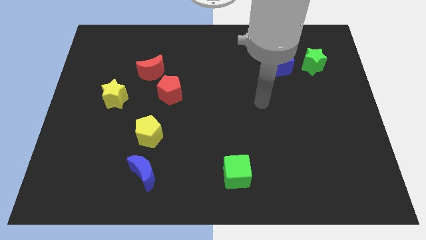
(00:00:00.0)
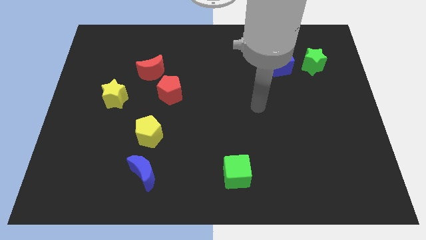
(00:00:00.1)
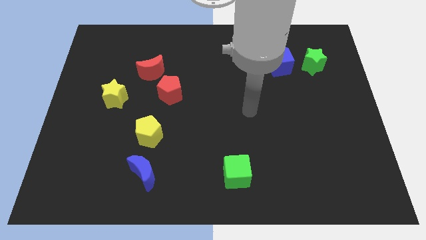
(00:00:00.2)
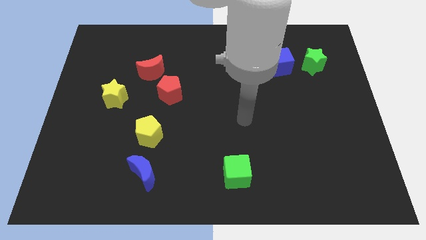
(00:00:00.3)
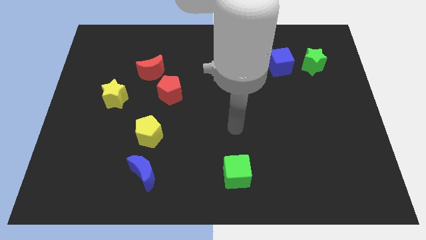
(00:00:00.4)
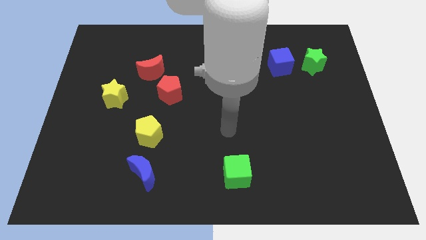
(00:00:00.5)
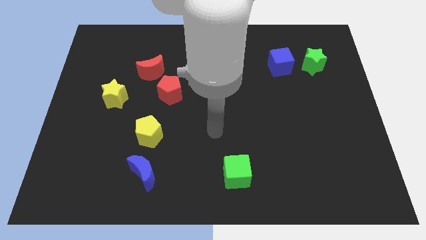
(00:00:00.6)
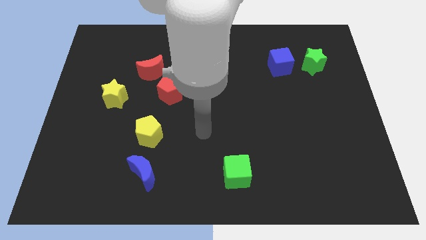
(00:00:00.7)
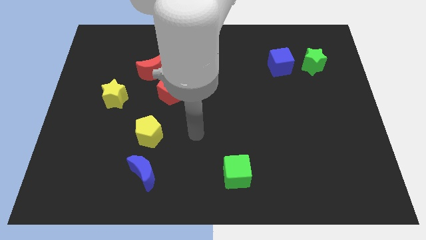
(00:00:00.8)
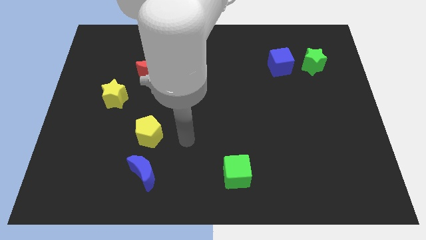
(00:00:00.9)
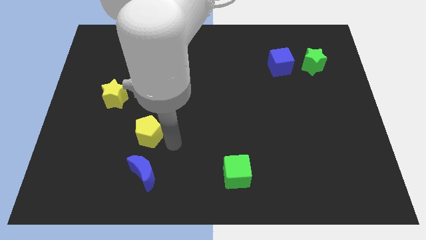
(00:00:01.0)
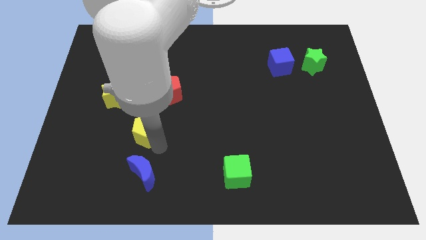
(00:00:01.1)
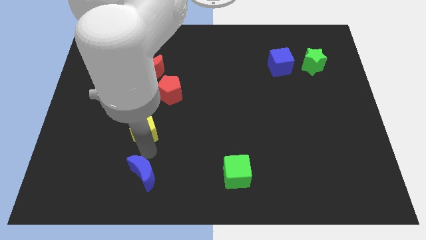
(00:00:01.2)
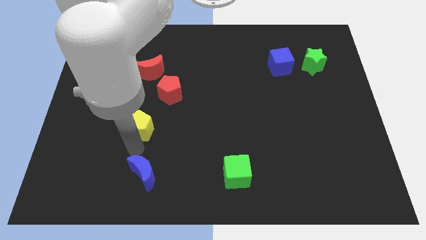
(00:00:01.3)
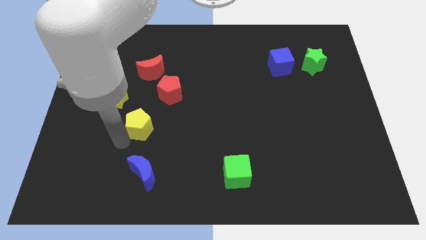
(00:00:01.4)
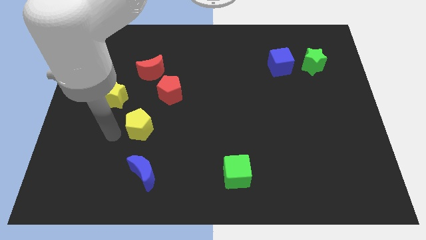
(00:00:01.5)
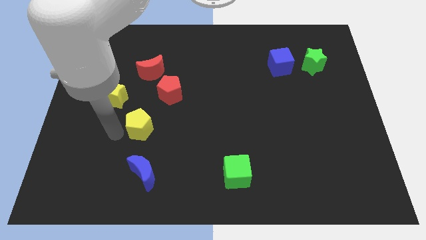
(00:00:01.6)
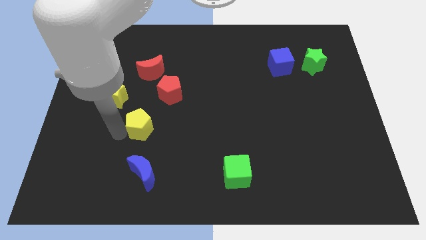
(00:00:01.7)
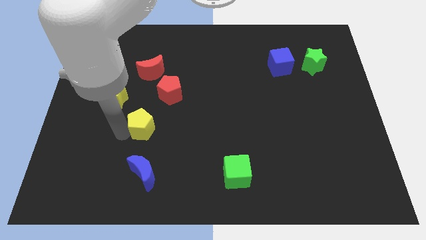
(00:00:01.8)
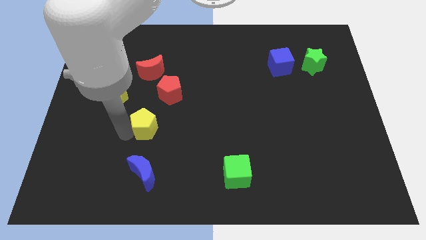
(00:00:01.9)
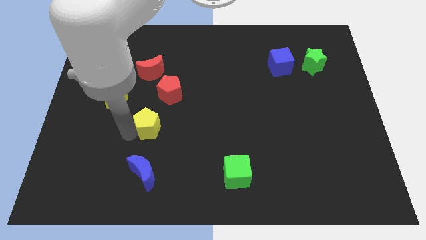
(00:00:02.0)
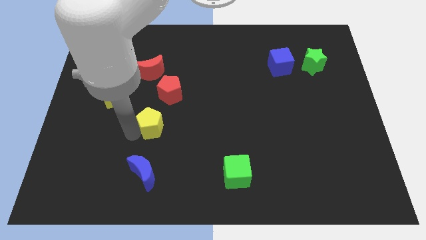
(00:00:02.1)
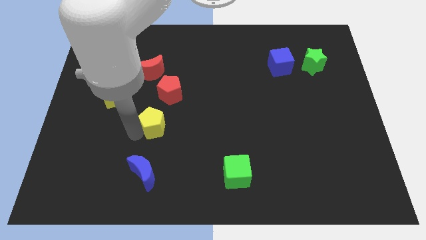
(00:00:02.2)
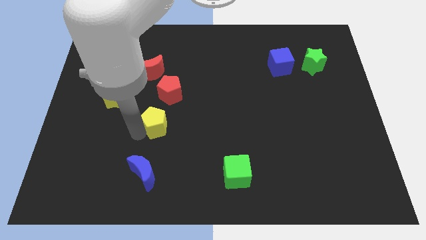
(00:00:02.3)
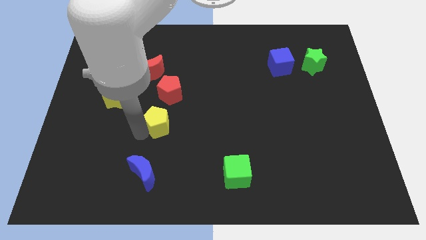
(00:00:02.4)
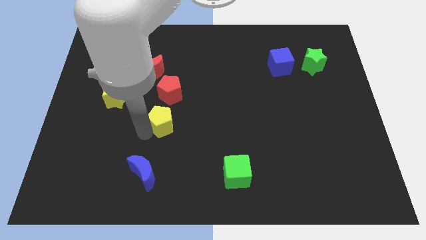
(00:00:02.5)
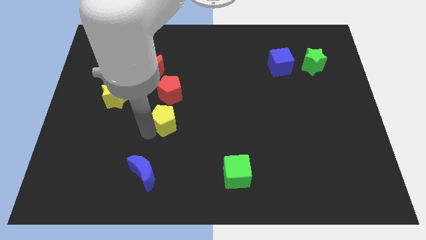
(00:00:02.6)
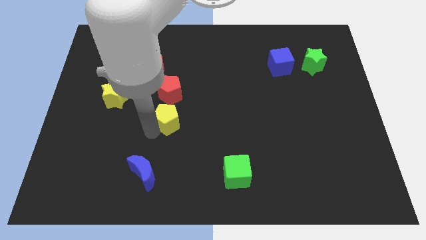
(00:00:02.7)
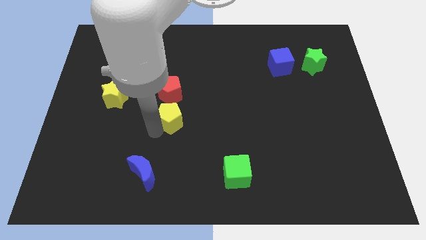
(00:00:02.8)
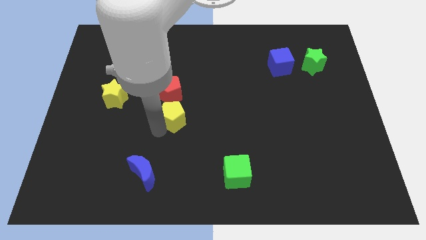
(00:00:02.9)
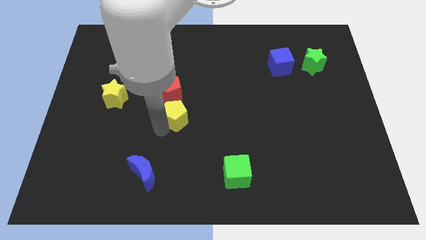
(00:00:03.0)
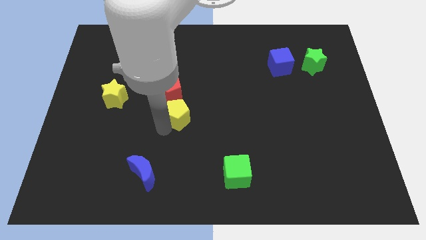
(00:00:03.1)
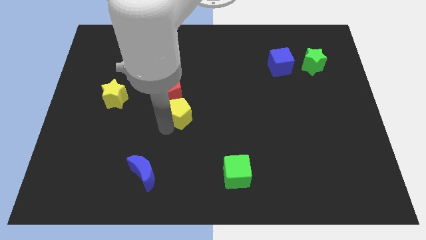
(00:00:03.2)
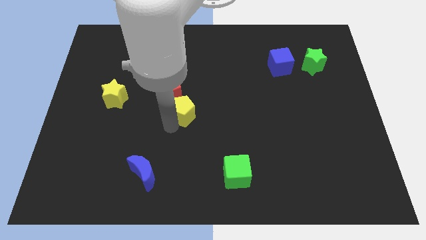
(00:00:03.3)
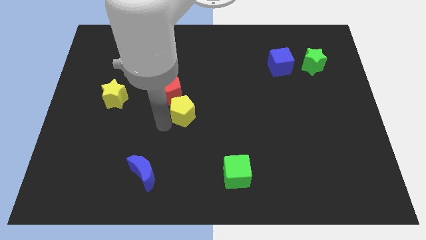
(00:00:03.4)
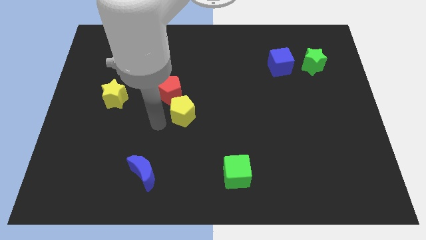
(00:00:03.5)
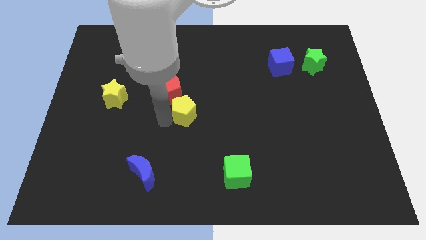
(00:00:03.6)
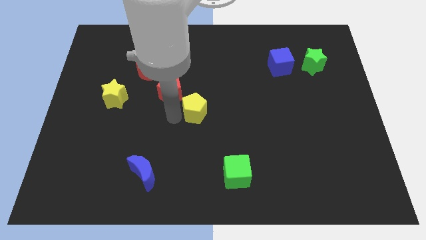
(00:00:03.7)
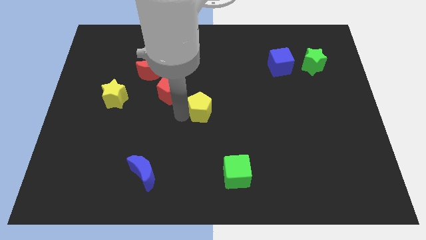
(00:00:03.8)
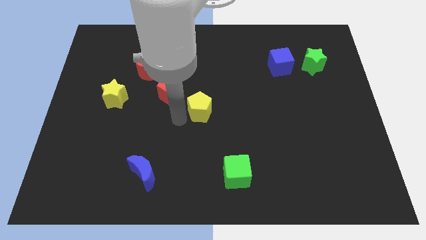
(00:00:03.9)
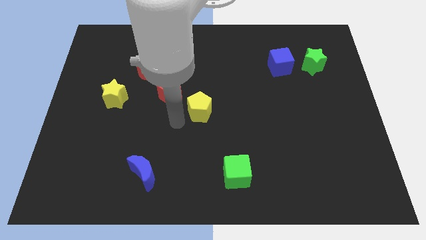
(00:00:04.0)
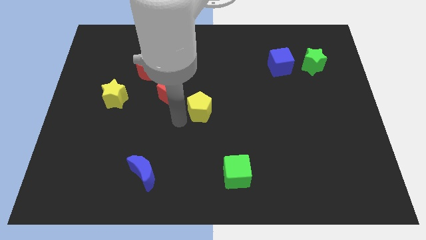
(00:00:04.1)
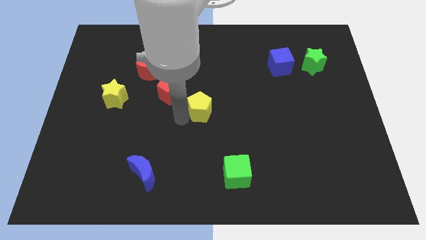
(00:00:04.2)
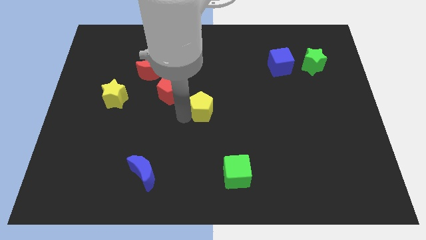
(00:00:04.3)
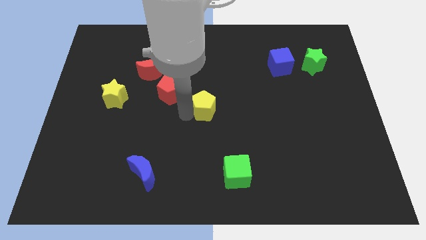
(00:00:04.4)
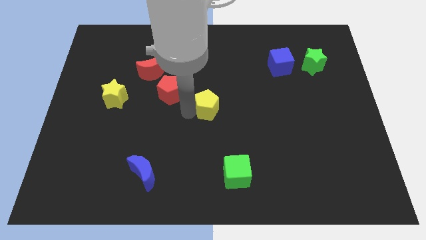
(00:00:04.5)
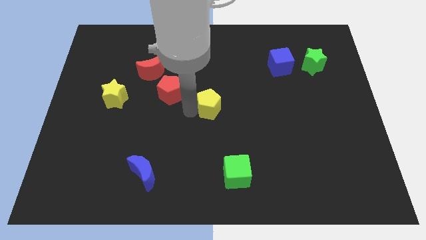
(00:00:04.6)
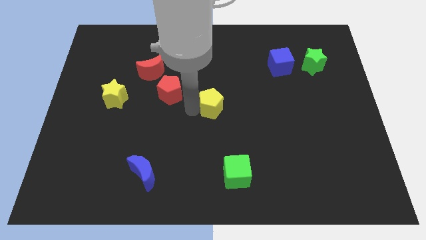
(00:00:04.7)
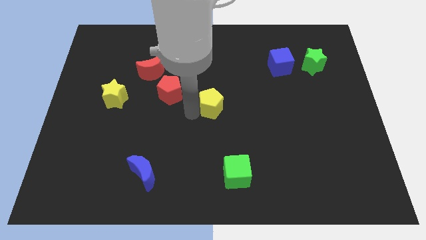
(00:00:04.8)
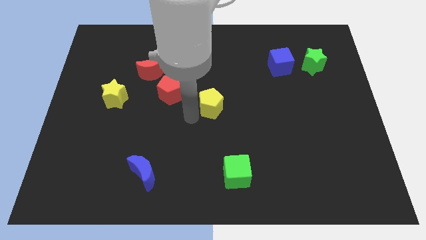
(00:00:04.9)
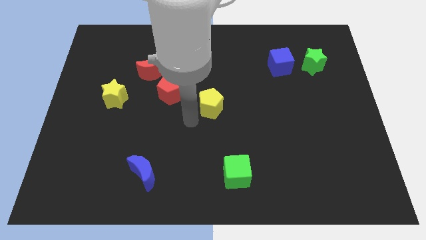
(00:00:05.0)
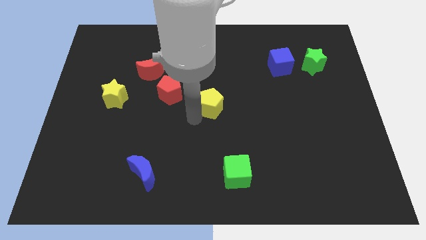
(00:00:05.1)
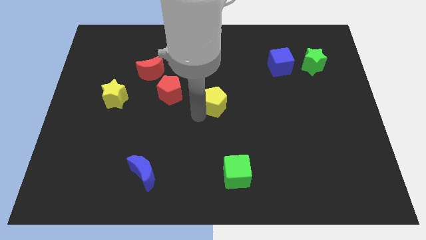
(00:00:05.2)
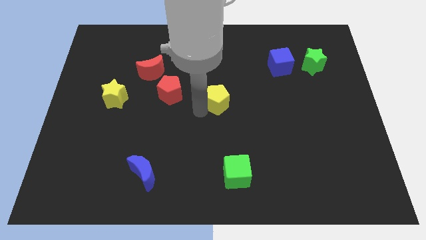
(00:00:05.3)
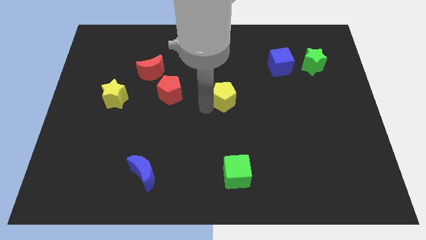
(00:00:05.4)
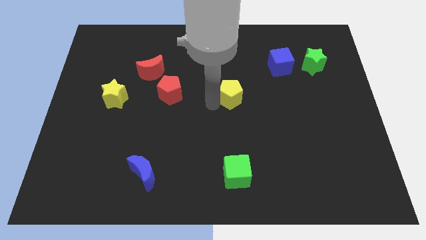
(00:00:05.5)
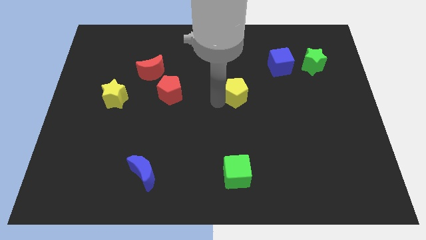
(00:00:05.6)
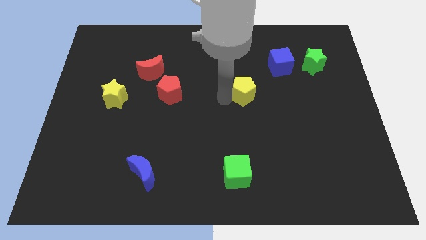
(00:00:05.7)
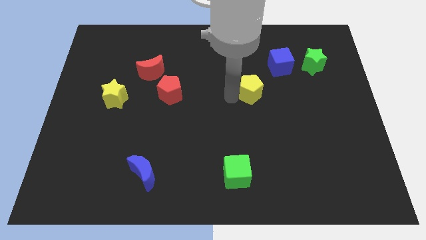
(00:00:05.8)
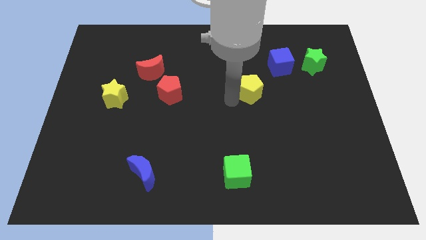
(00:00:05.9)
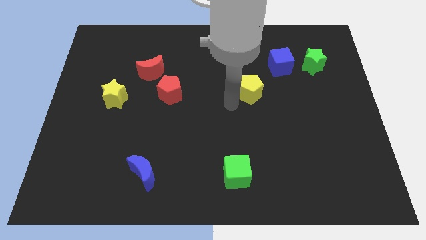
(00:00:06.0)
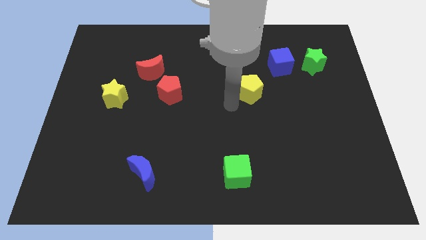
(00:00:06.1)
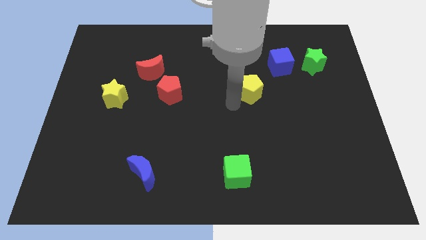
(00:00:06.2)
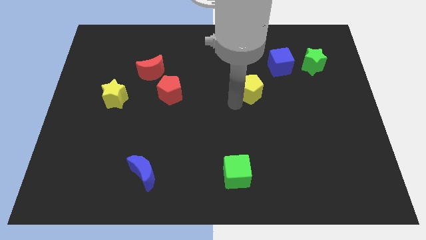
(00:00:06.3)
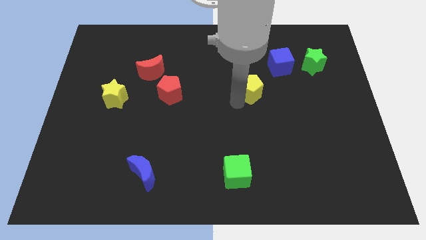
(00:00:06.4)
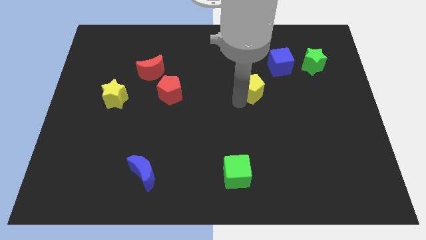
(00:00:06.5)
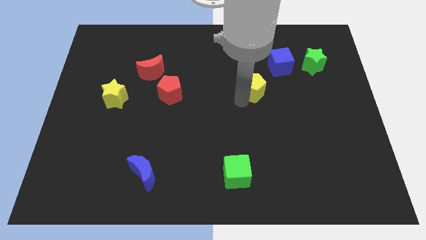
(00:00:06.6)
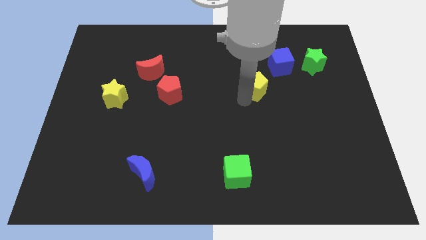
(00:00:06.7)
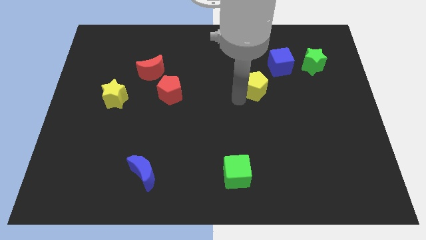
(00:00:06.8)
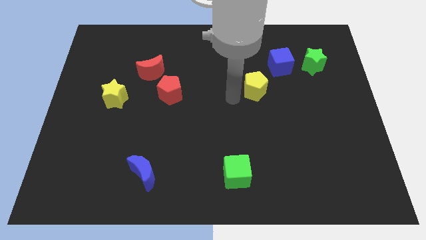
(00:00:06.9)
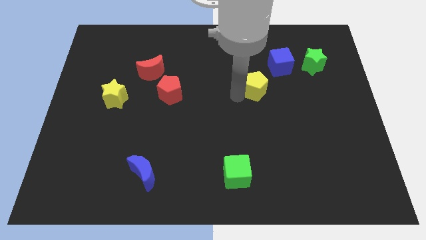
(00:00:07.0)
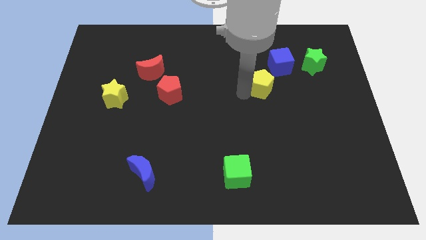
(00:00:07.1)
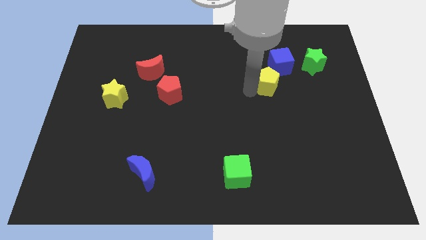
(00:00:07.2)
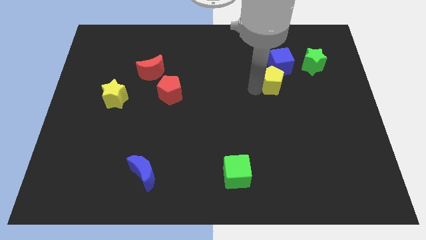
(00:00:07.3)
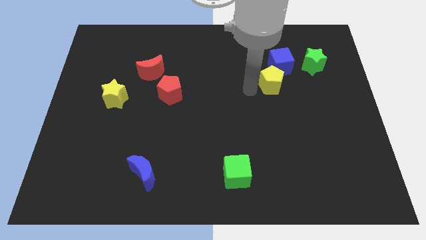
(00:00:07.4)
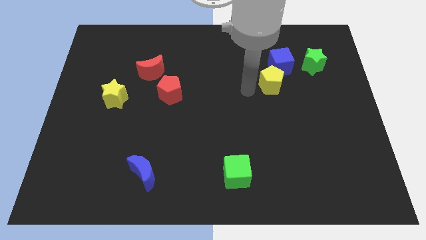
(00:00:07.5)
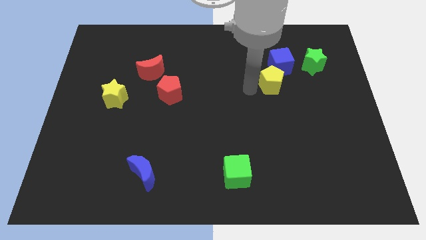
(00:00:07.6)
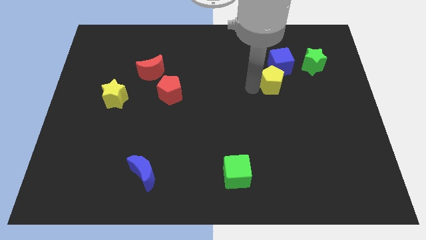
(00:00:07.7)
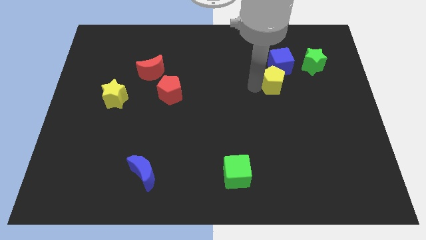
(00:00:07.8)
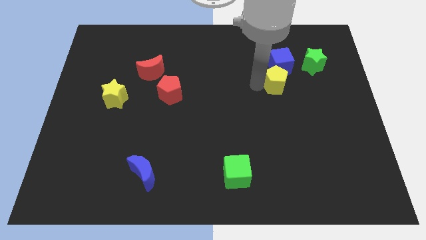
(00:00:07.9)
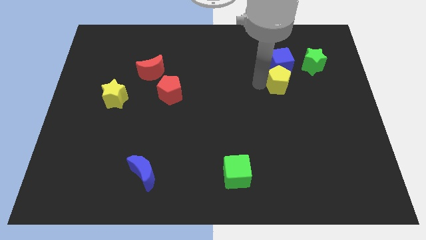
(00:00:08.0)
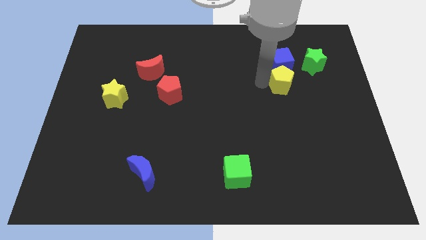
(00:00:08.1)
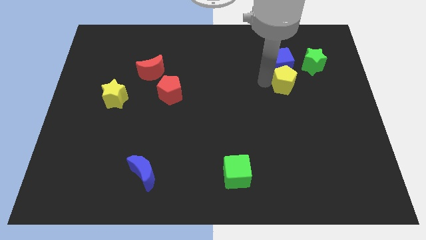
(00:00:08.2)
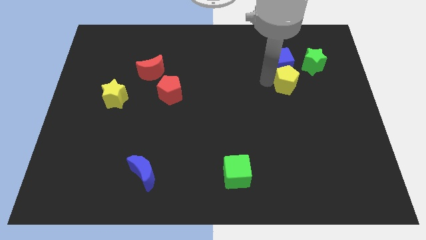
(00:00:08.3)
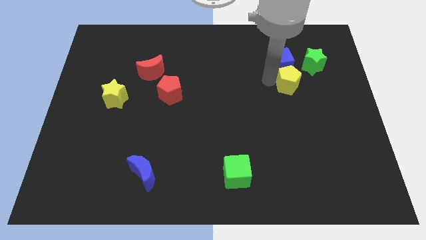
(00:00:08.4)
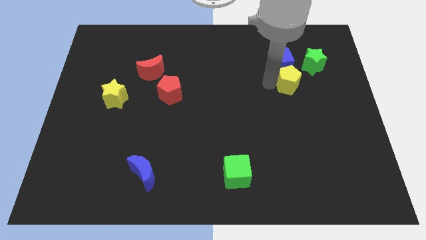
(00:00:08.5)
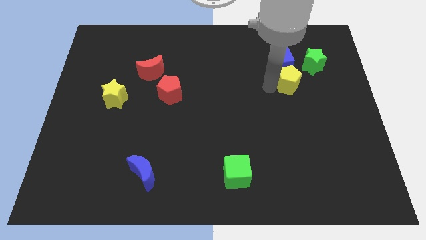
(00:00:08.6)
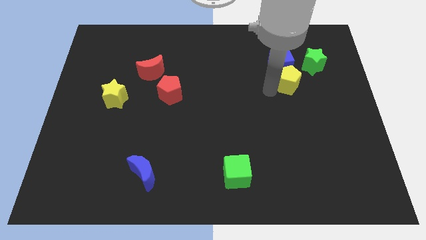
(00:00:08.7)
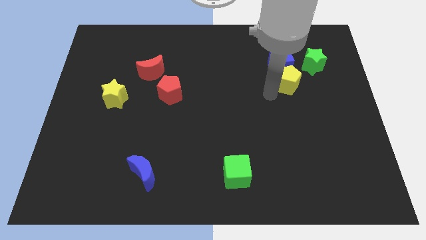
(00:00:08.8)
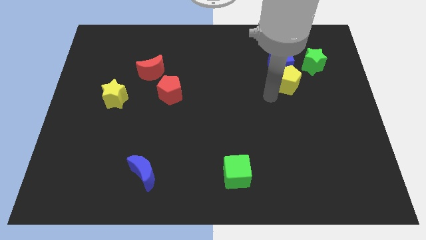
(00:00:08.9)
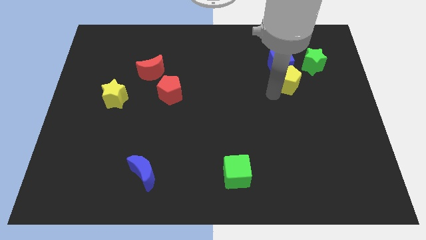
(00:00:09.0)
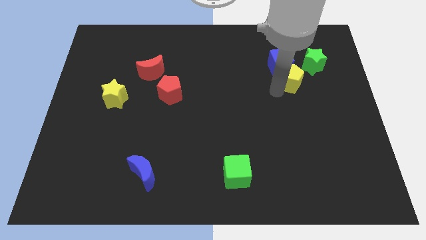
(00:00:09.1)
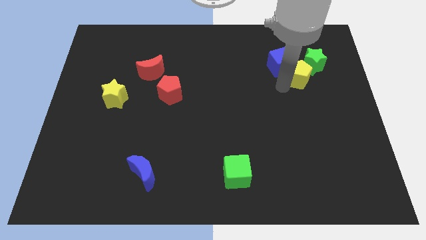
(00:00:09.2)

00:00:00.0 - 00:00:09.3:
slide the yellow pentagon close to the green star
